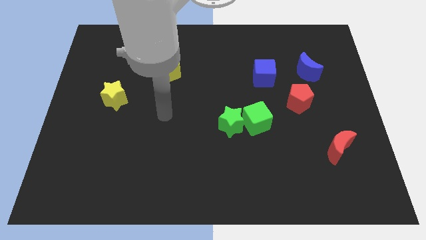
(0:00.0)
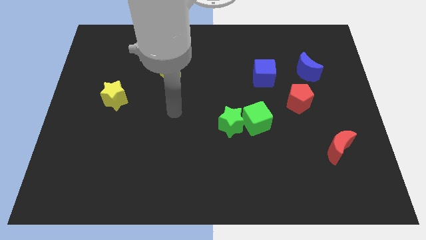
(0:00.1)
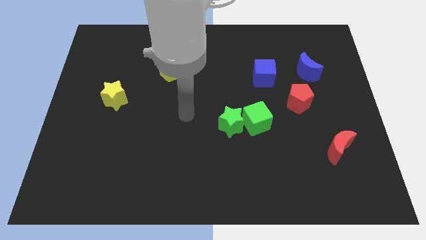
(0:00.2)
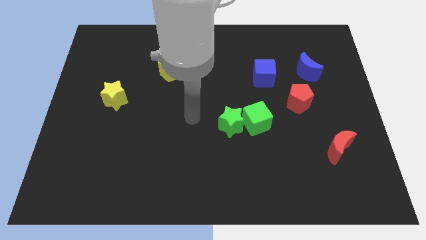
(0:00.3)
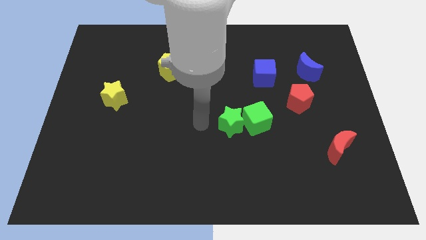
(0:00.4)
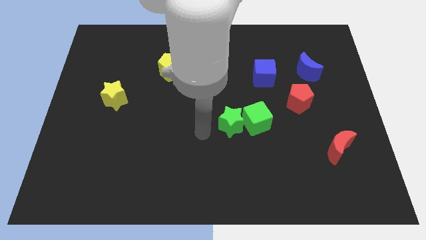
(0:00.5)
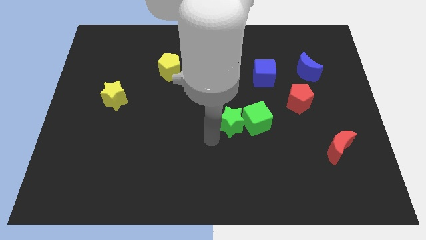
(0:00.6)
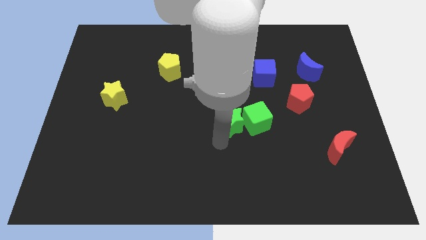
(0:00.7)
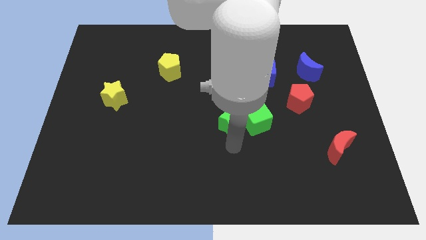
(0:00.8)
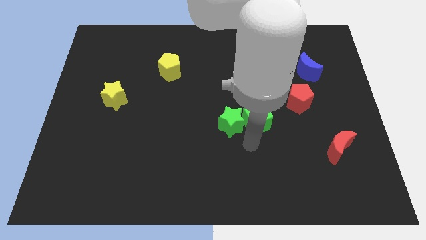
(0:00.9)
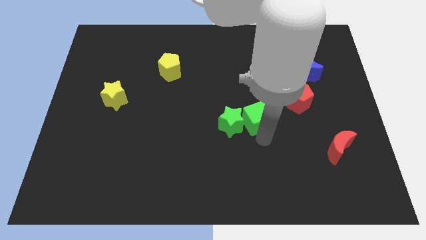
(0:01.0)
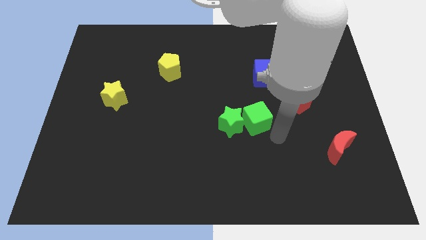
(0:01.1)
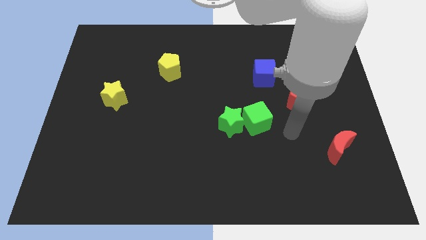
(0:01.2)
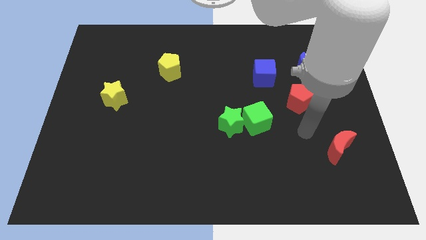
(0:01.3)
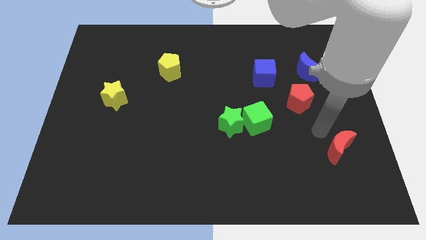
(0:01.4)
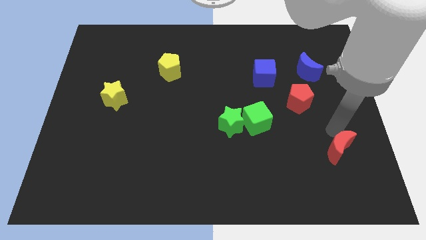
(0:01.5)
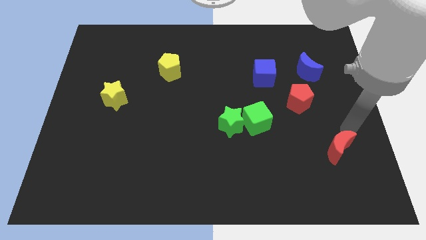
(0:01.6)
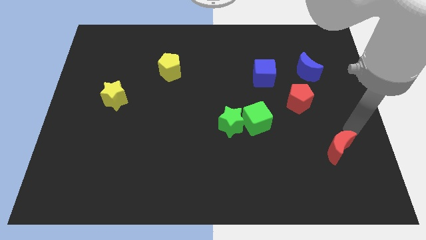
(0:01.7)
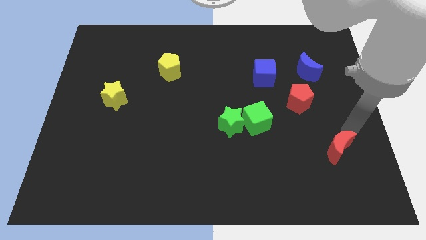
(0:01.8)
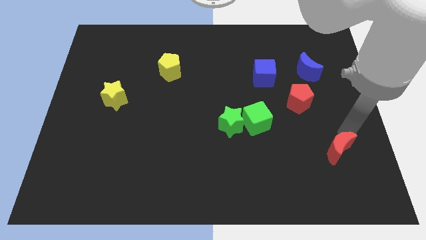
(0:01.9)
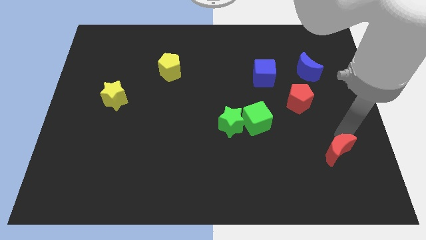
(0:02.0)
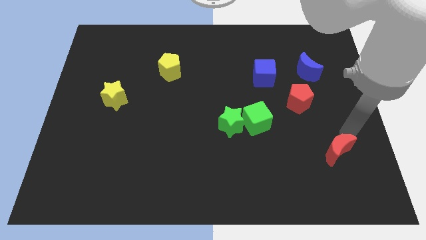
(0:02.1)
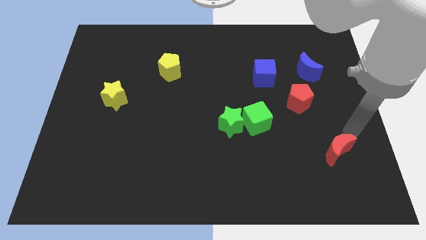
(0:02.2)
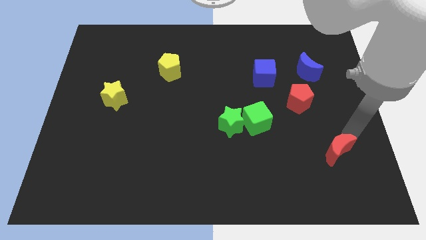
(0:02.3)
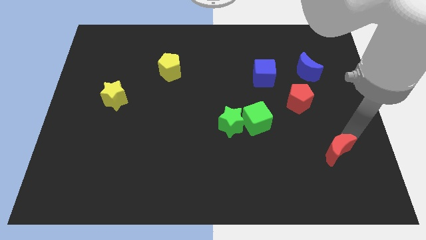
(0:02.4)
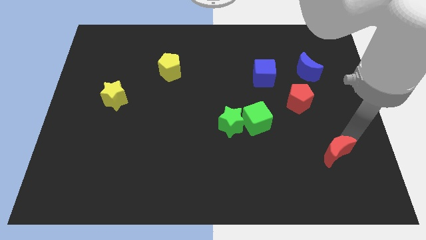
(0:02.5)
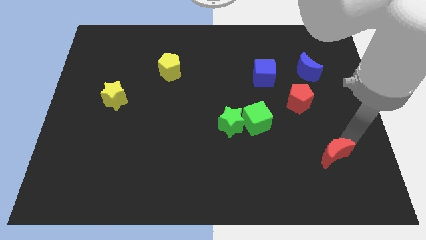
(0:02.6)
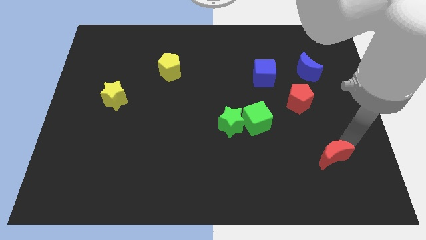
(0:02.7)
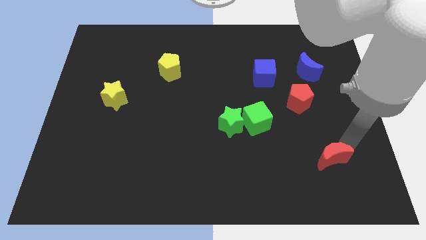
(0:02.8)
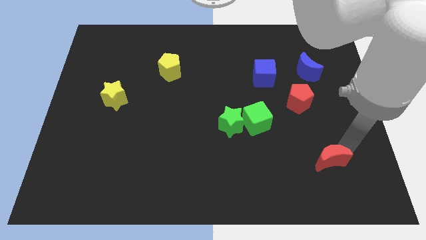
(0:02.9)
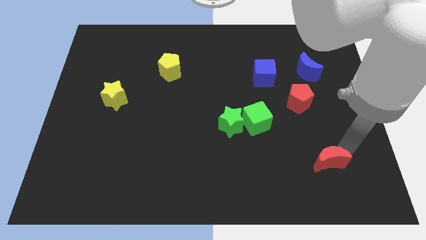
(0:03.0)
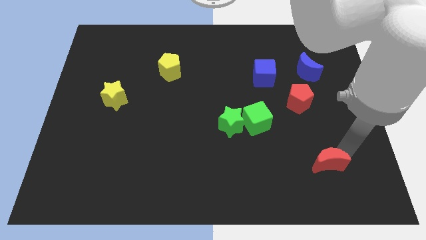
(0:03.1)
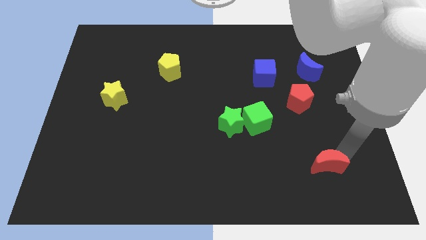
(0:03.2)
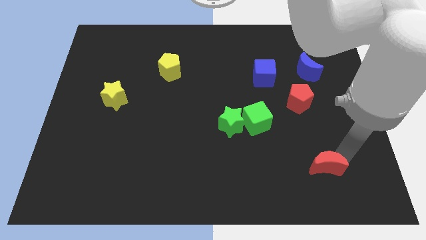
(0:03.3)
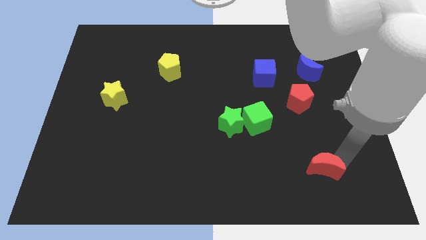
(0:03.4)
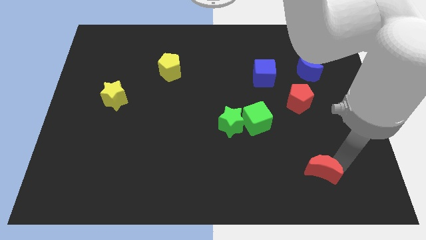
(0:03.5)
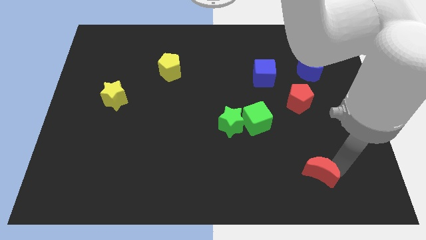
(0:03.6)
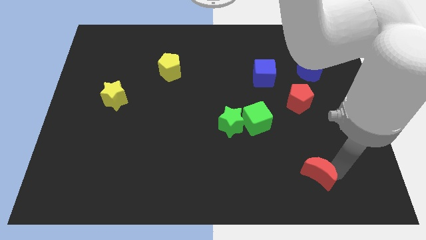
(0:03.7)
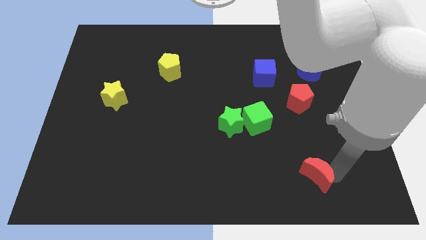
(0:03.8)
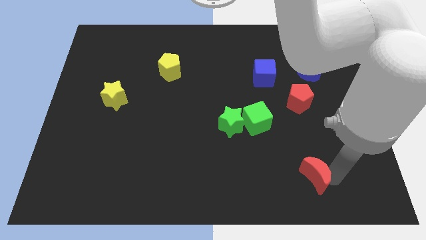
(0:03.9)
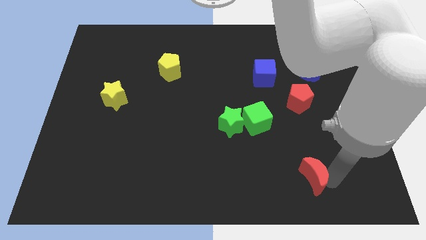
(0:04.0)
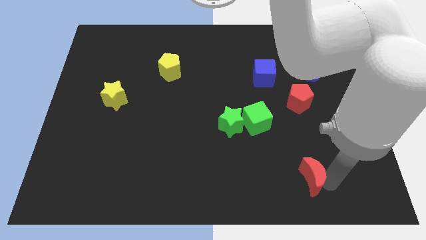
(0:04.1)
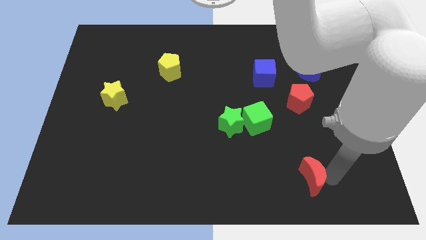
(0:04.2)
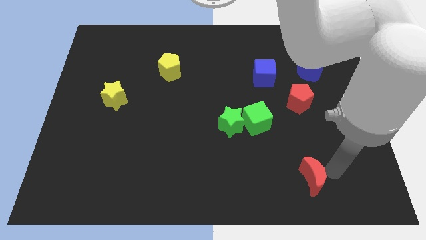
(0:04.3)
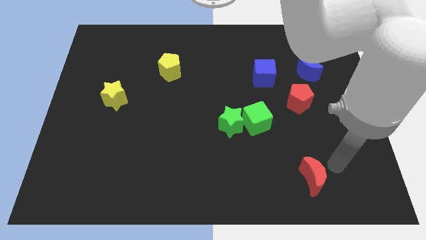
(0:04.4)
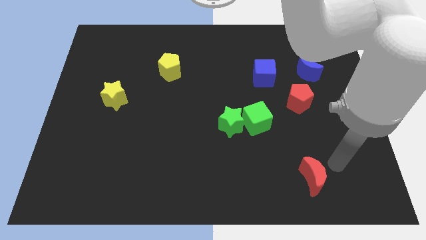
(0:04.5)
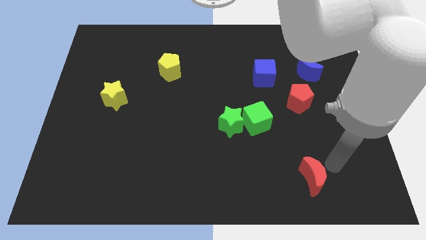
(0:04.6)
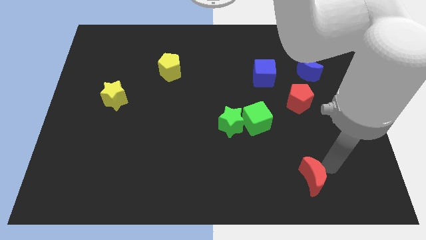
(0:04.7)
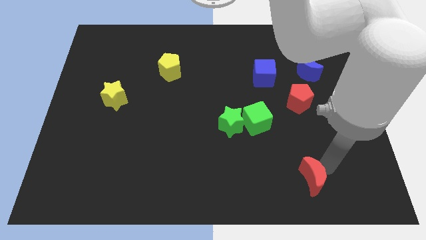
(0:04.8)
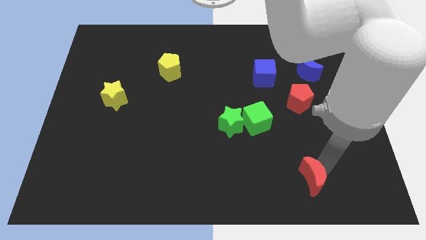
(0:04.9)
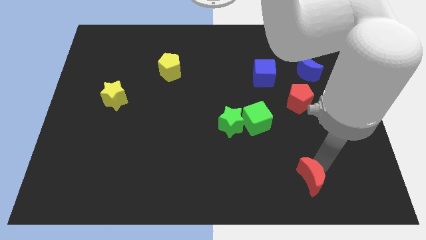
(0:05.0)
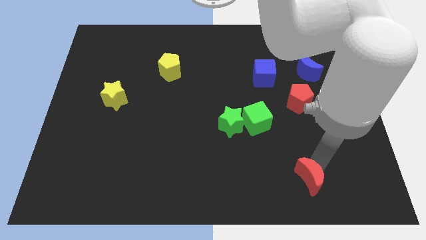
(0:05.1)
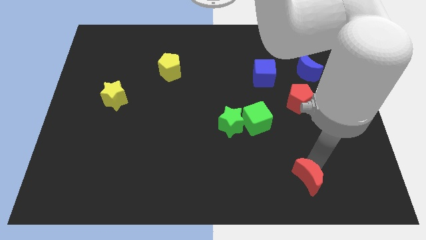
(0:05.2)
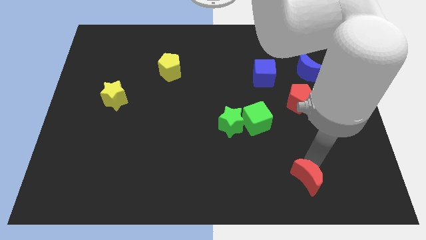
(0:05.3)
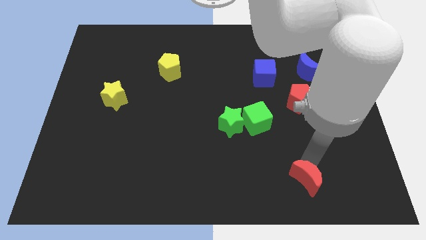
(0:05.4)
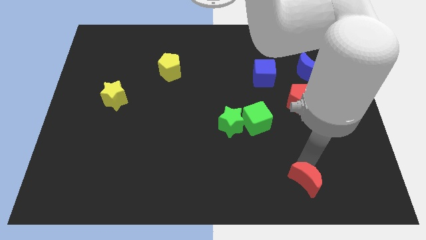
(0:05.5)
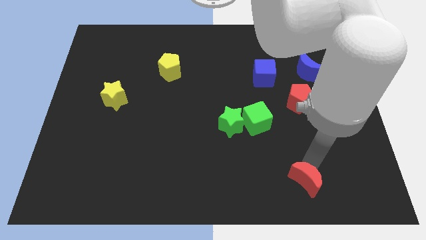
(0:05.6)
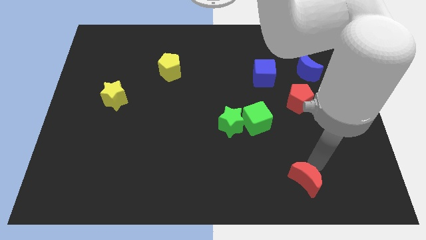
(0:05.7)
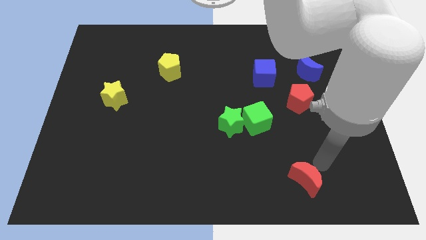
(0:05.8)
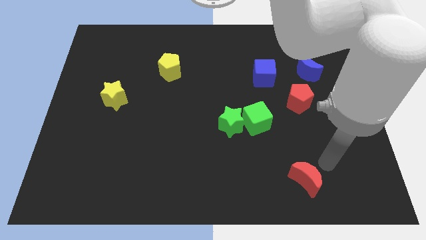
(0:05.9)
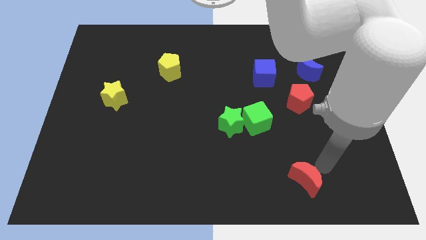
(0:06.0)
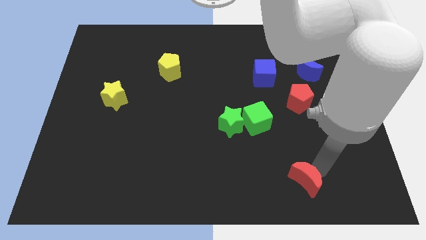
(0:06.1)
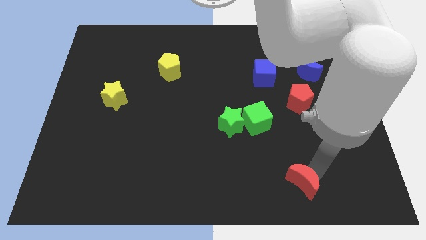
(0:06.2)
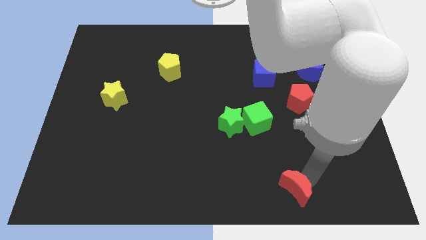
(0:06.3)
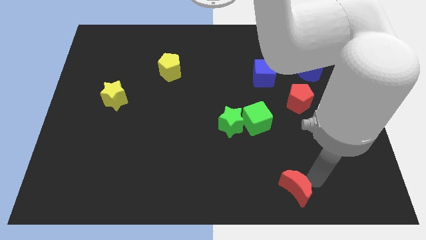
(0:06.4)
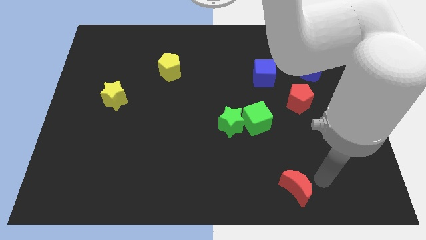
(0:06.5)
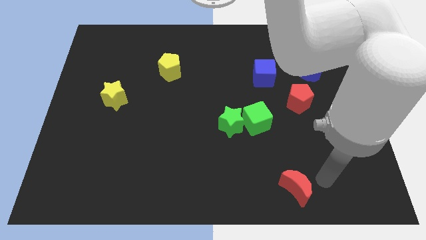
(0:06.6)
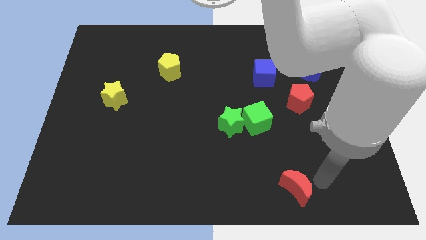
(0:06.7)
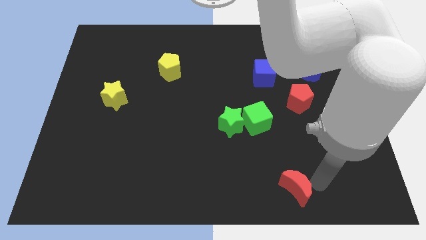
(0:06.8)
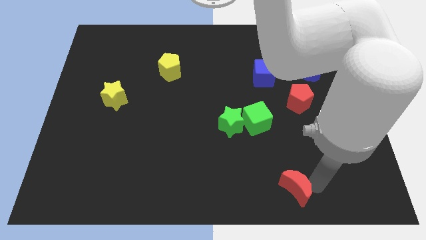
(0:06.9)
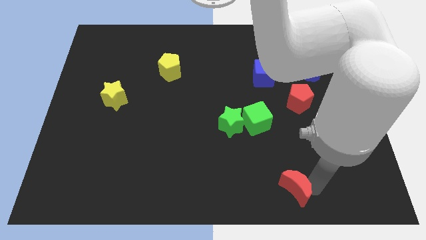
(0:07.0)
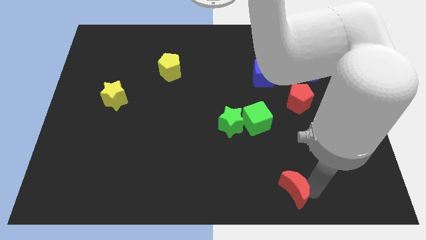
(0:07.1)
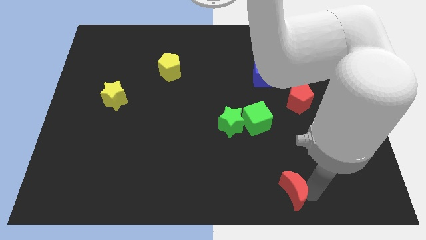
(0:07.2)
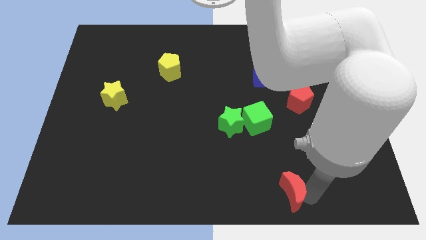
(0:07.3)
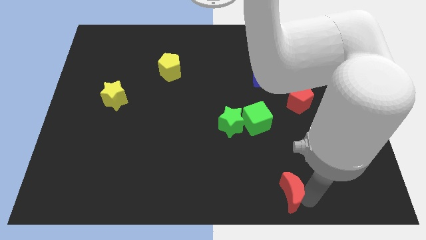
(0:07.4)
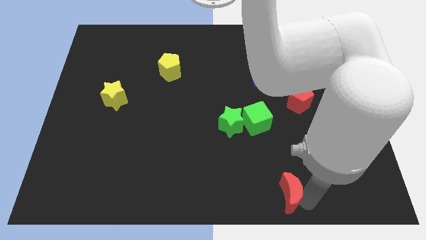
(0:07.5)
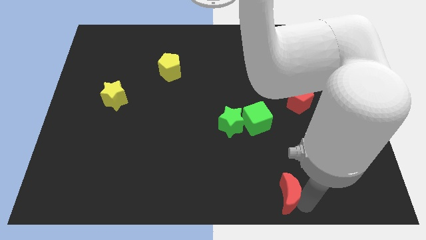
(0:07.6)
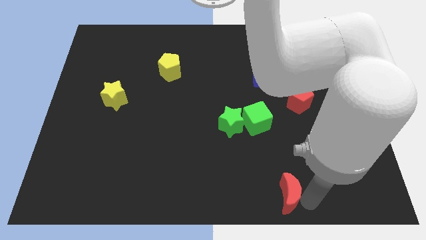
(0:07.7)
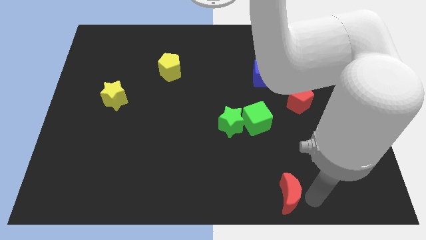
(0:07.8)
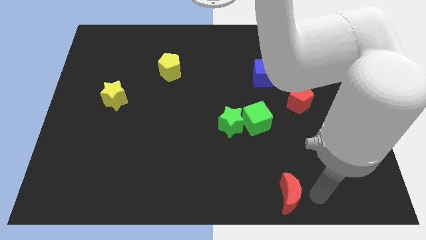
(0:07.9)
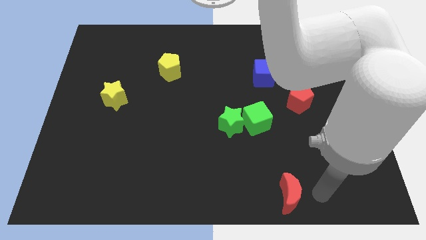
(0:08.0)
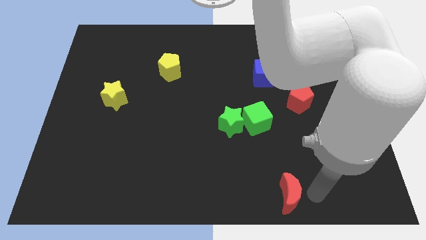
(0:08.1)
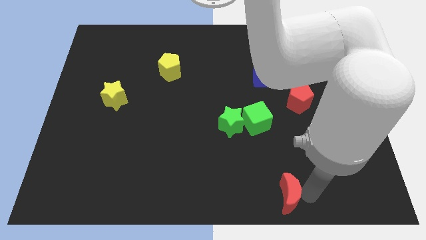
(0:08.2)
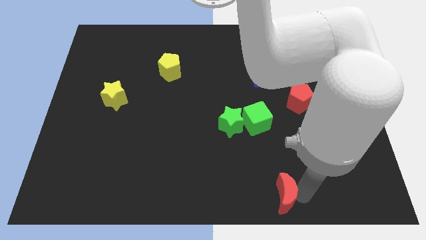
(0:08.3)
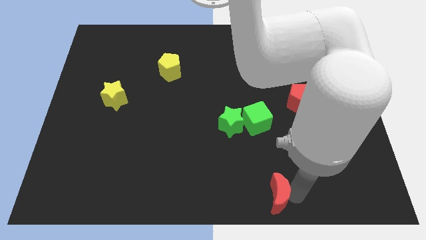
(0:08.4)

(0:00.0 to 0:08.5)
slide the red moon to the bottom side
